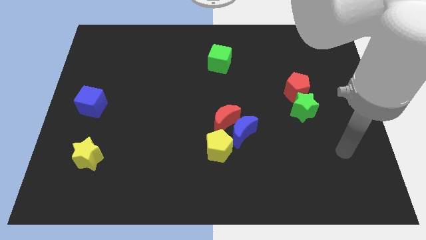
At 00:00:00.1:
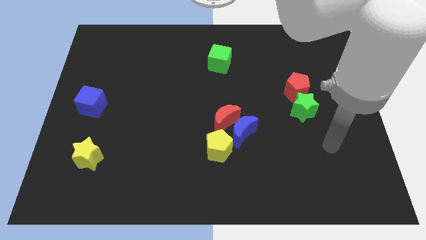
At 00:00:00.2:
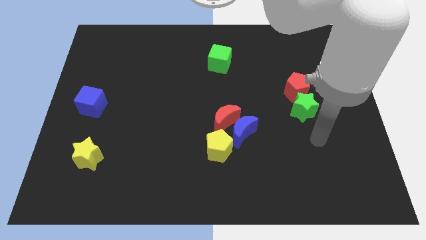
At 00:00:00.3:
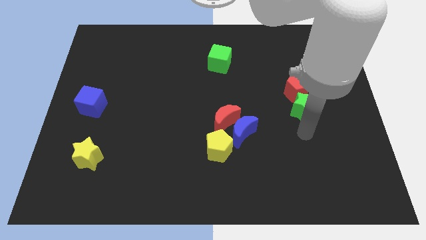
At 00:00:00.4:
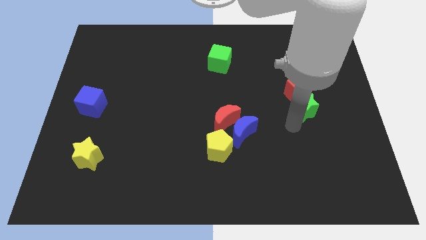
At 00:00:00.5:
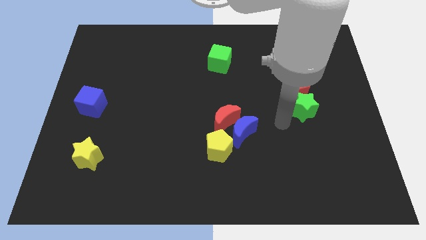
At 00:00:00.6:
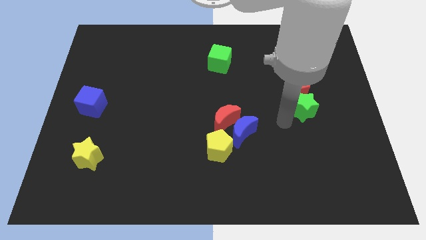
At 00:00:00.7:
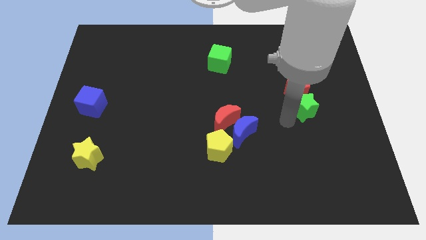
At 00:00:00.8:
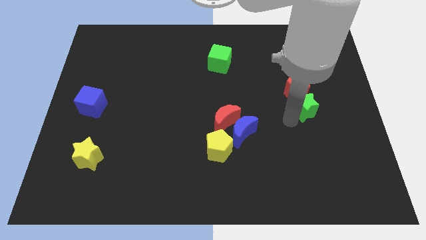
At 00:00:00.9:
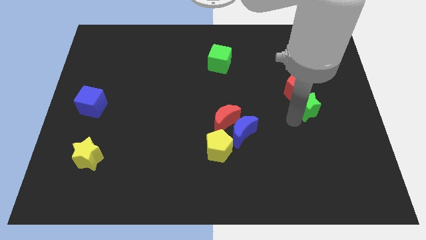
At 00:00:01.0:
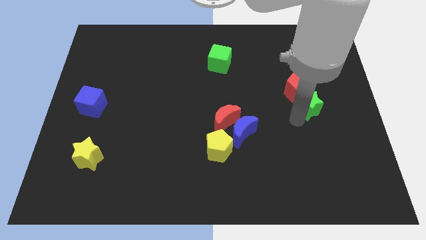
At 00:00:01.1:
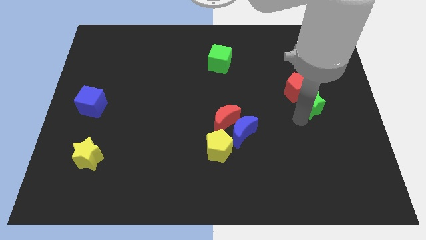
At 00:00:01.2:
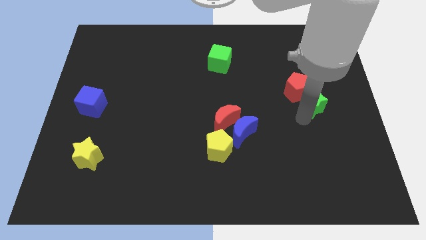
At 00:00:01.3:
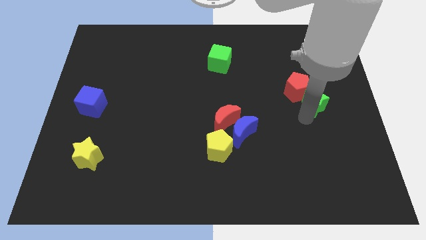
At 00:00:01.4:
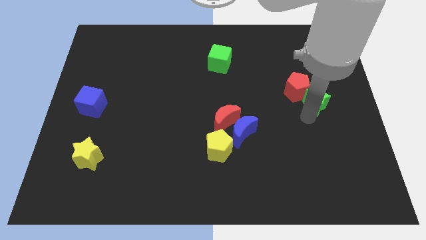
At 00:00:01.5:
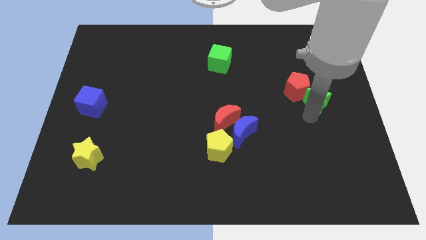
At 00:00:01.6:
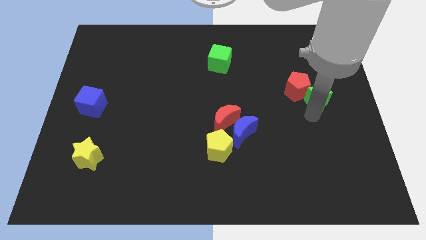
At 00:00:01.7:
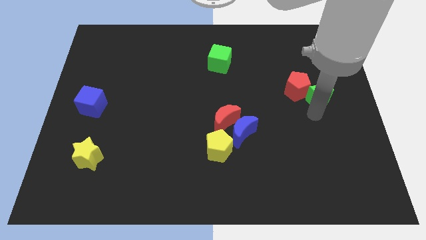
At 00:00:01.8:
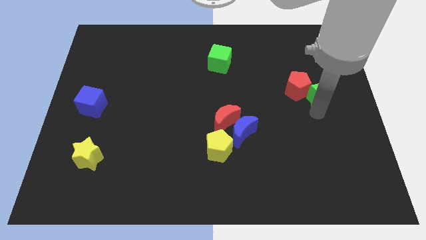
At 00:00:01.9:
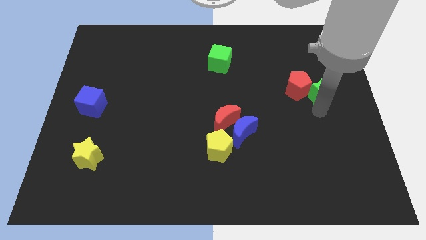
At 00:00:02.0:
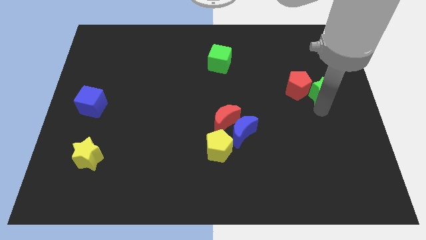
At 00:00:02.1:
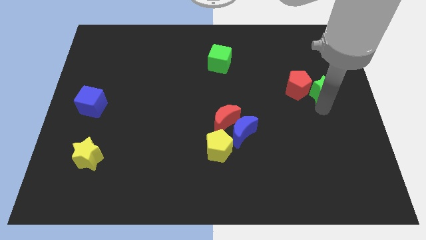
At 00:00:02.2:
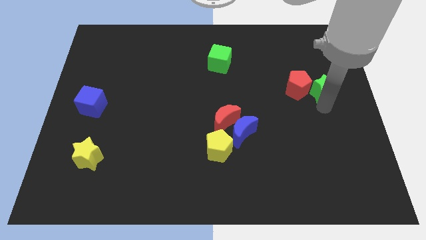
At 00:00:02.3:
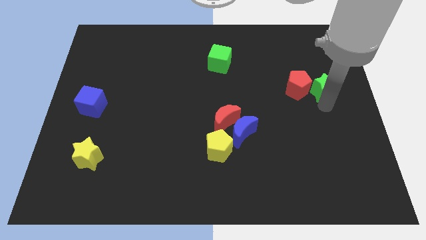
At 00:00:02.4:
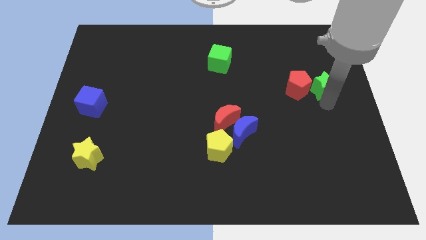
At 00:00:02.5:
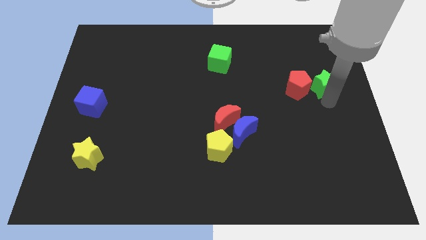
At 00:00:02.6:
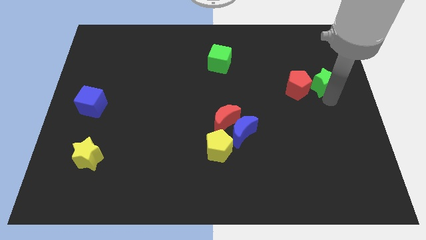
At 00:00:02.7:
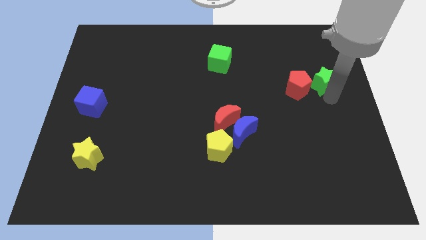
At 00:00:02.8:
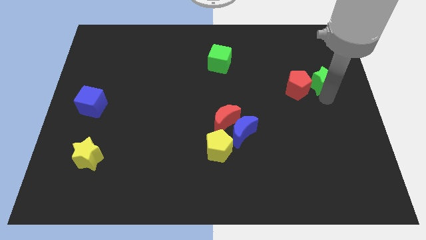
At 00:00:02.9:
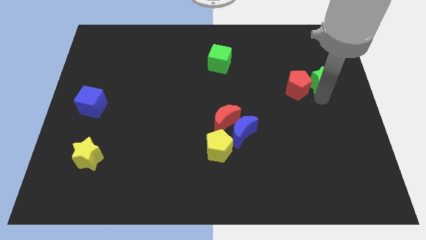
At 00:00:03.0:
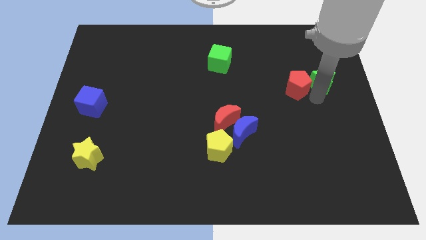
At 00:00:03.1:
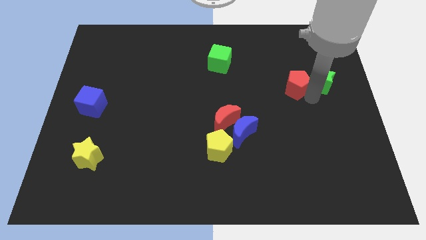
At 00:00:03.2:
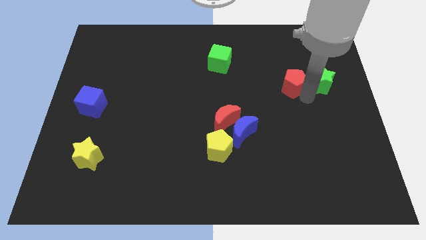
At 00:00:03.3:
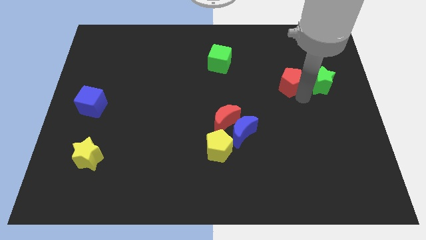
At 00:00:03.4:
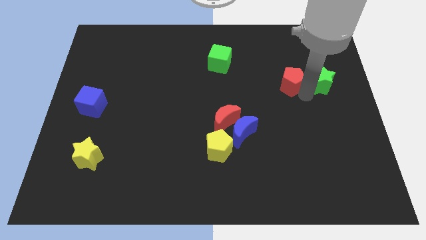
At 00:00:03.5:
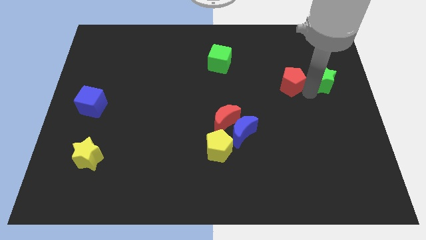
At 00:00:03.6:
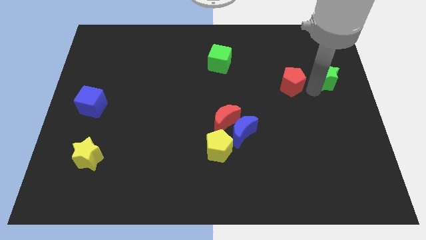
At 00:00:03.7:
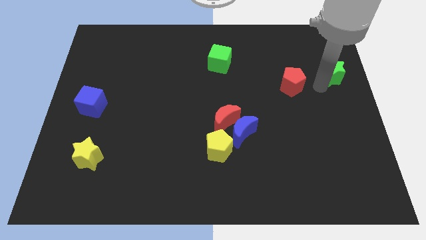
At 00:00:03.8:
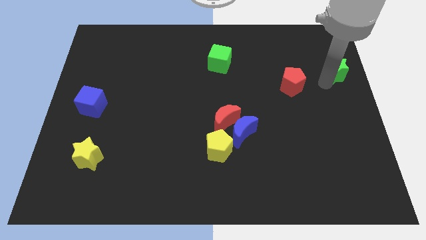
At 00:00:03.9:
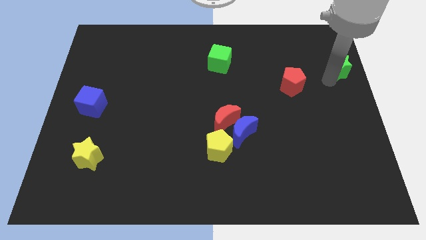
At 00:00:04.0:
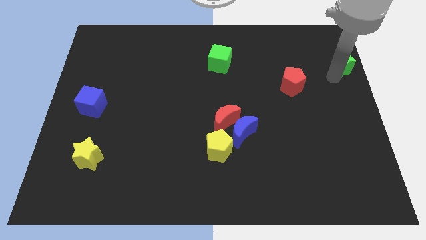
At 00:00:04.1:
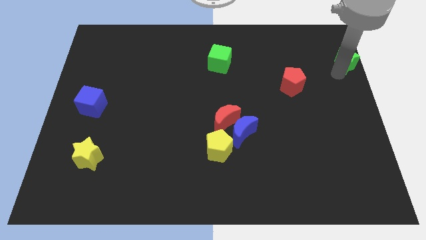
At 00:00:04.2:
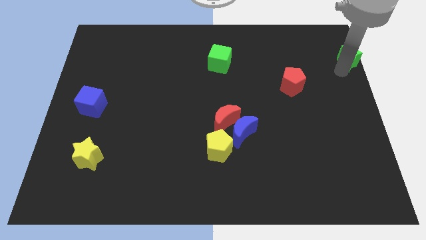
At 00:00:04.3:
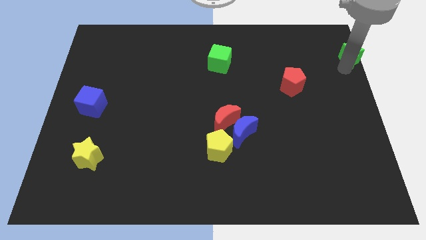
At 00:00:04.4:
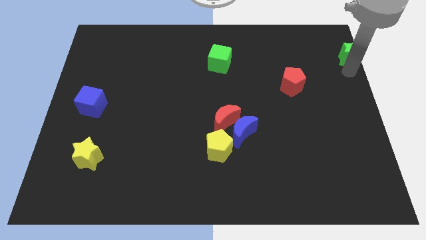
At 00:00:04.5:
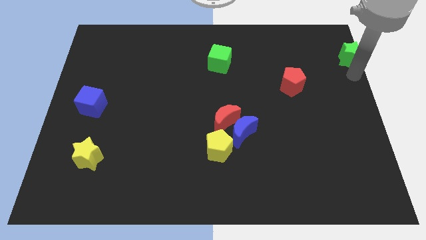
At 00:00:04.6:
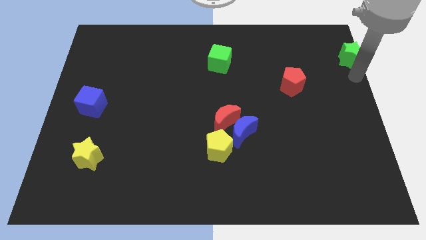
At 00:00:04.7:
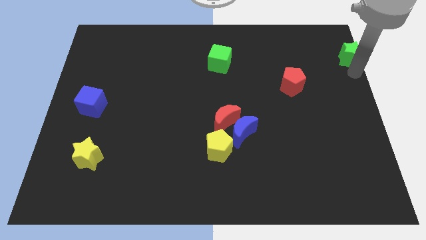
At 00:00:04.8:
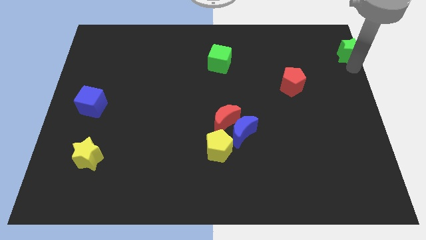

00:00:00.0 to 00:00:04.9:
move the green star to the top right of the board

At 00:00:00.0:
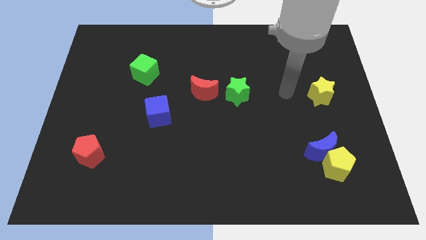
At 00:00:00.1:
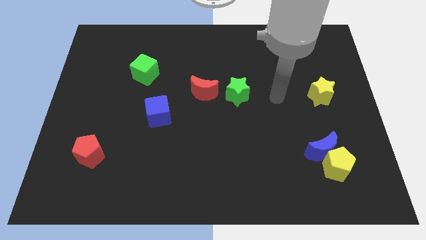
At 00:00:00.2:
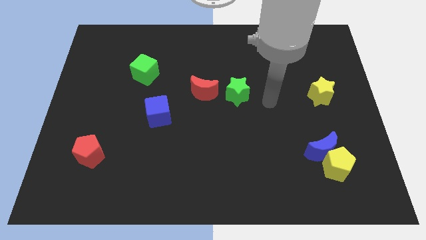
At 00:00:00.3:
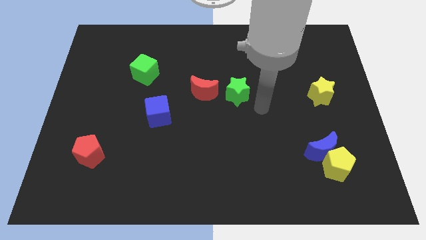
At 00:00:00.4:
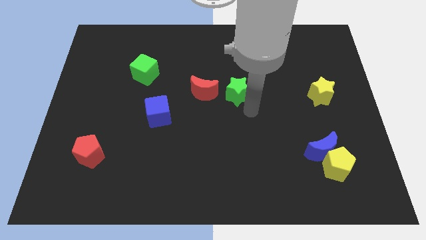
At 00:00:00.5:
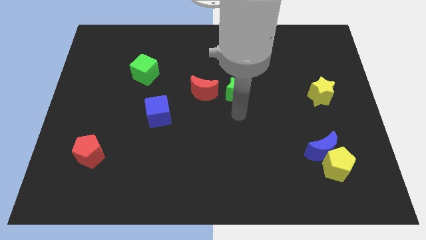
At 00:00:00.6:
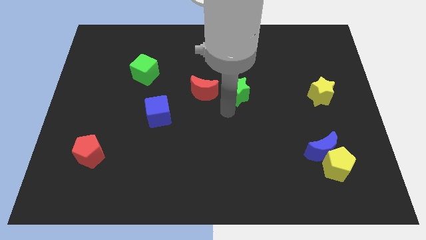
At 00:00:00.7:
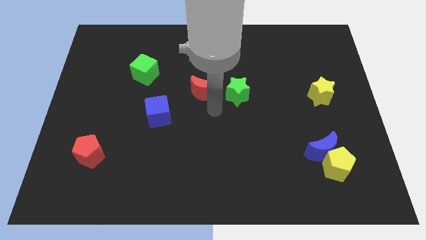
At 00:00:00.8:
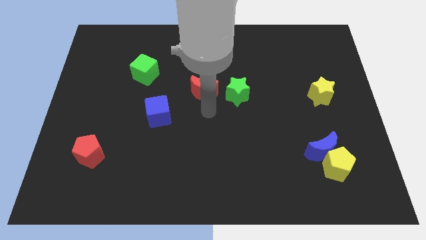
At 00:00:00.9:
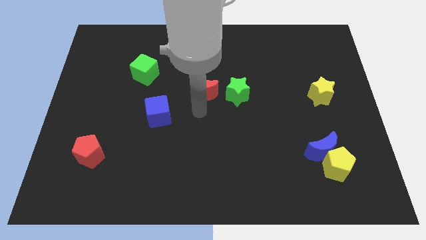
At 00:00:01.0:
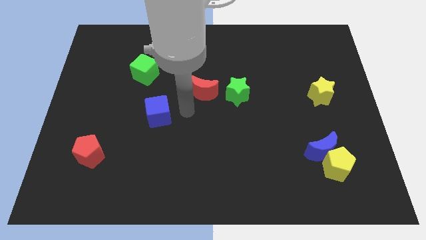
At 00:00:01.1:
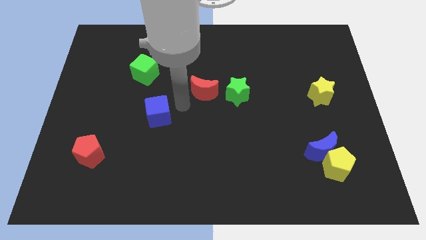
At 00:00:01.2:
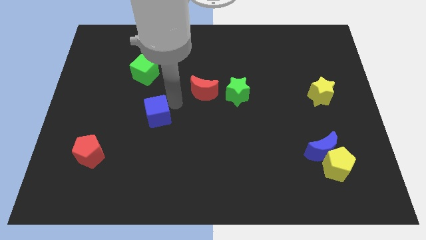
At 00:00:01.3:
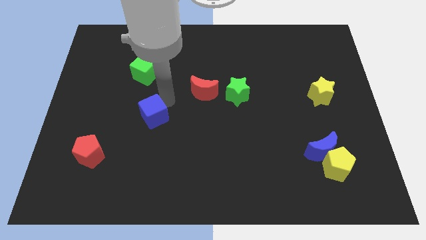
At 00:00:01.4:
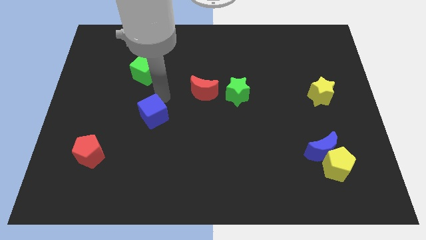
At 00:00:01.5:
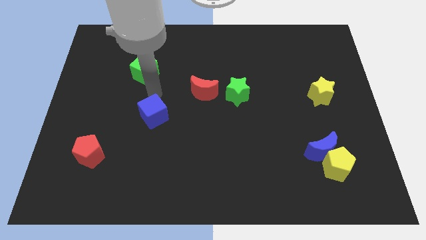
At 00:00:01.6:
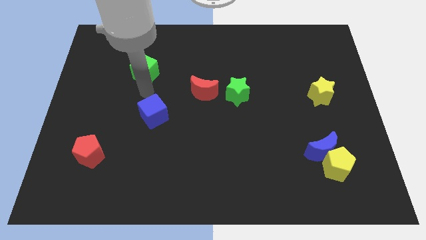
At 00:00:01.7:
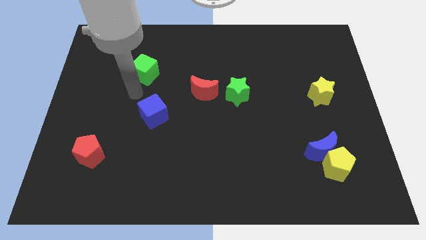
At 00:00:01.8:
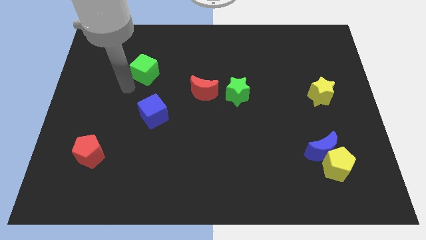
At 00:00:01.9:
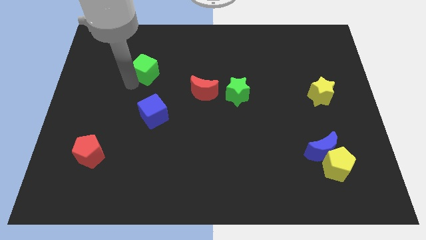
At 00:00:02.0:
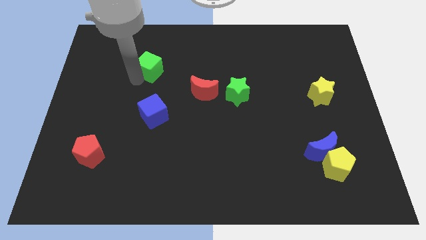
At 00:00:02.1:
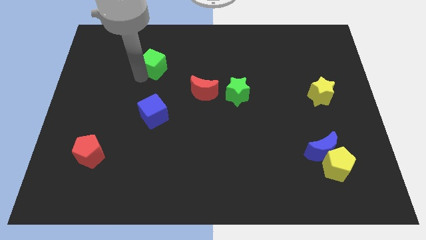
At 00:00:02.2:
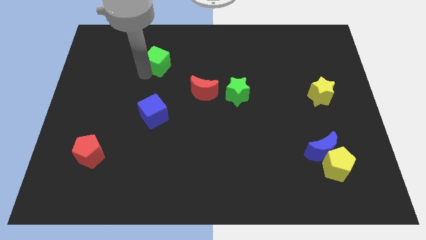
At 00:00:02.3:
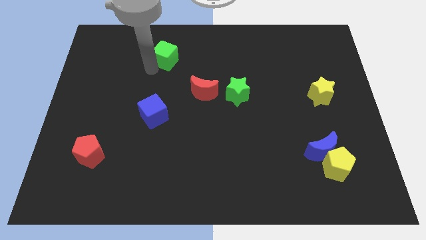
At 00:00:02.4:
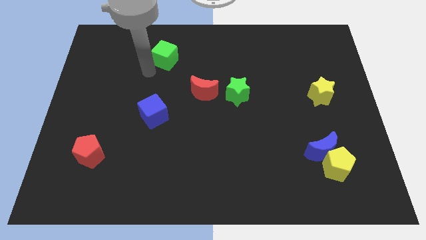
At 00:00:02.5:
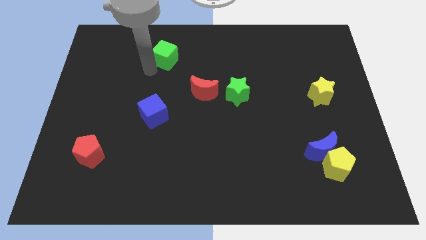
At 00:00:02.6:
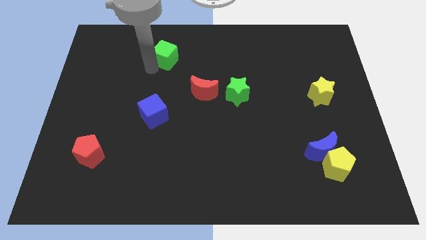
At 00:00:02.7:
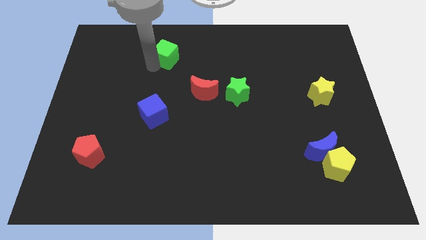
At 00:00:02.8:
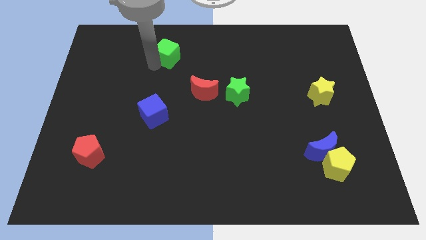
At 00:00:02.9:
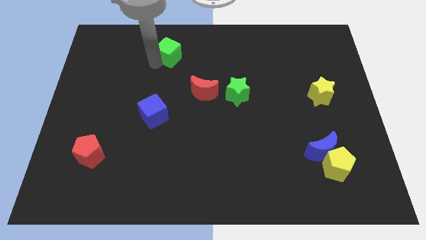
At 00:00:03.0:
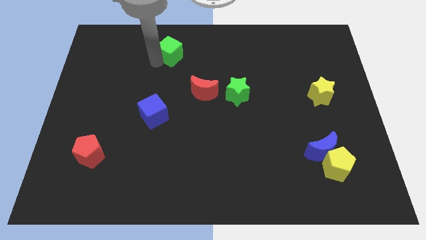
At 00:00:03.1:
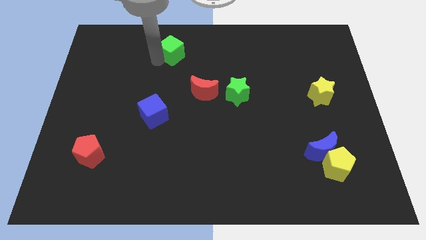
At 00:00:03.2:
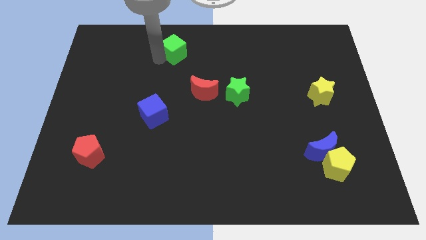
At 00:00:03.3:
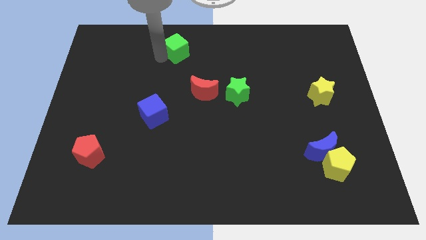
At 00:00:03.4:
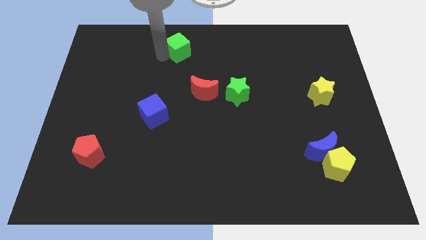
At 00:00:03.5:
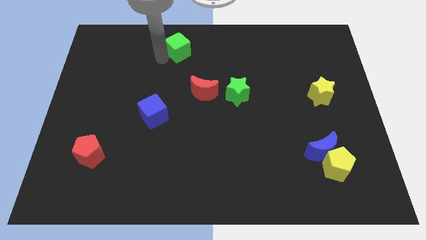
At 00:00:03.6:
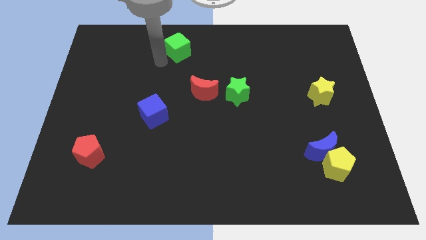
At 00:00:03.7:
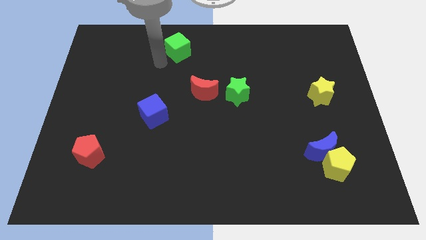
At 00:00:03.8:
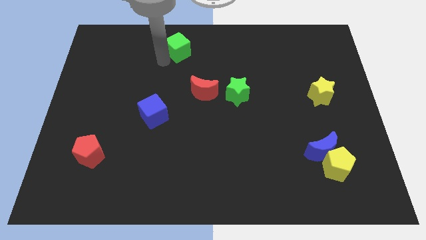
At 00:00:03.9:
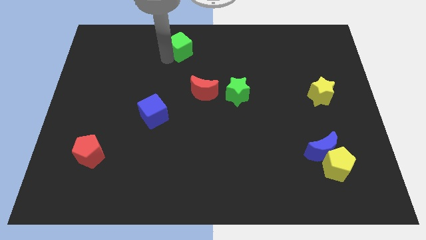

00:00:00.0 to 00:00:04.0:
slide the green cube to the towards your base
